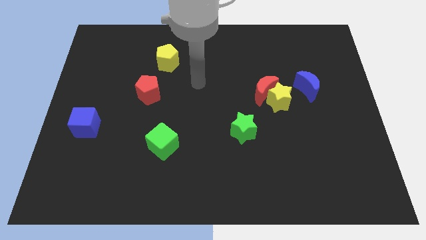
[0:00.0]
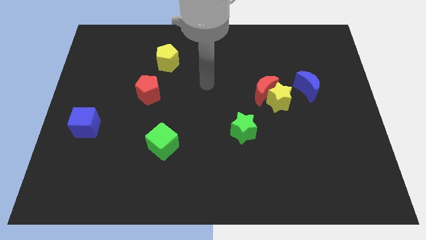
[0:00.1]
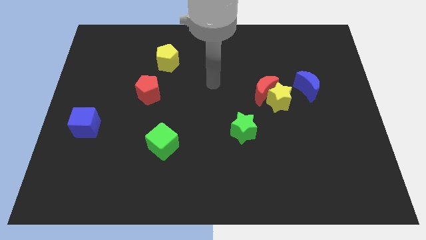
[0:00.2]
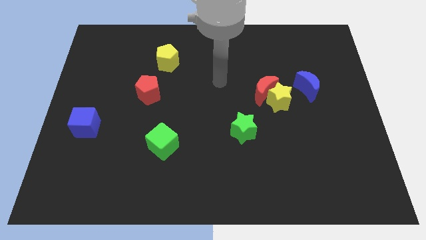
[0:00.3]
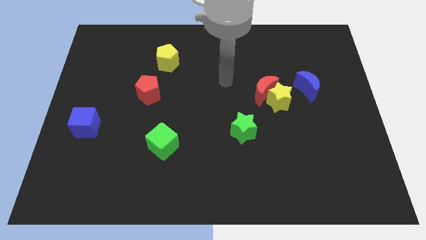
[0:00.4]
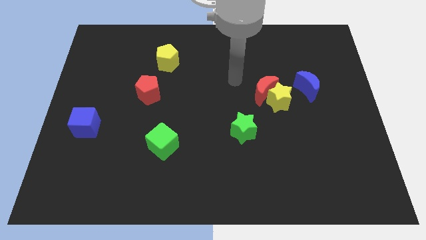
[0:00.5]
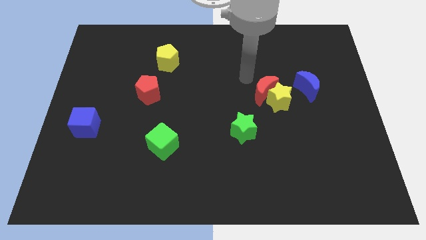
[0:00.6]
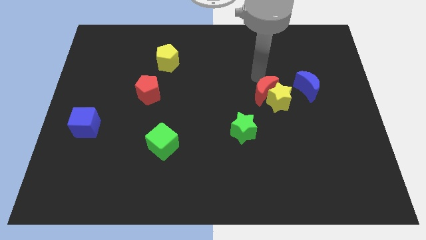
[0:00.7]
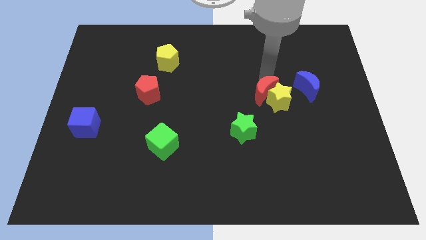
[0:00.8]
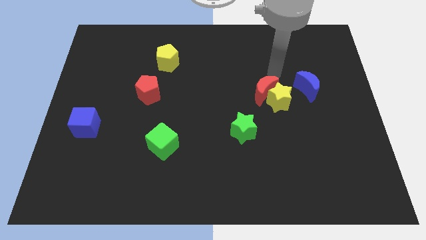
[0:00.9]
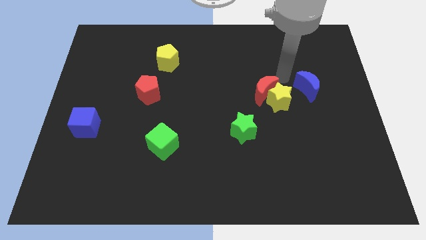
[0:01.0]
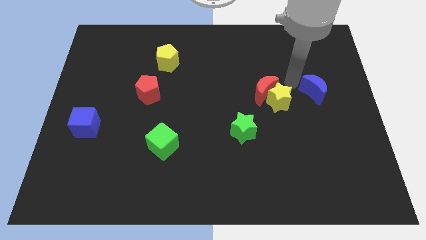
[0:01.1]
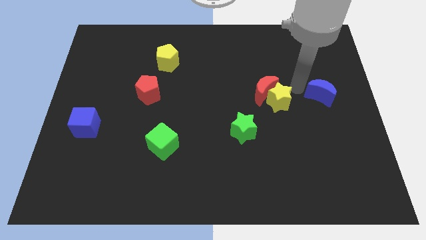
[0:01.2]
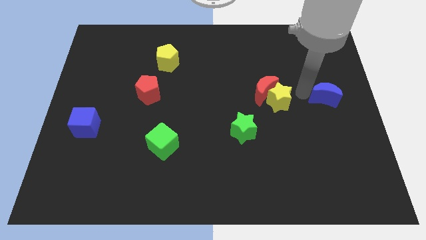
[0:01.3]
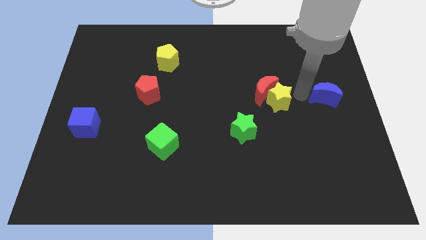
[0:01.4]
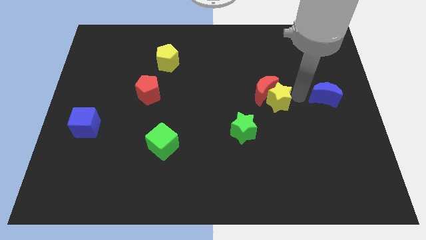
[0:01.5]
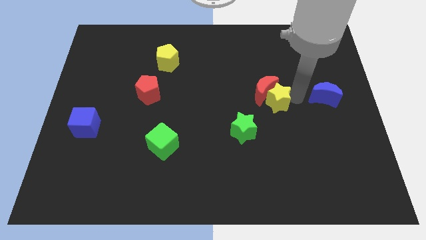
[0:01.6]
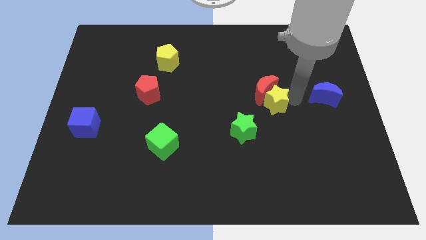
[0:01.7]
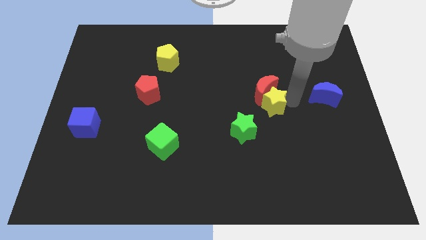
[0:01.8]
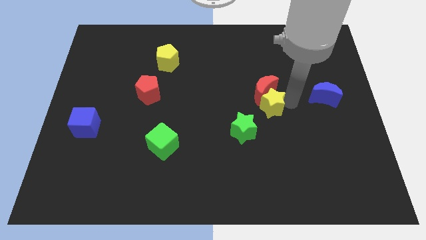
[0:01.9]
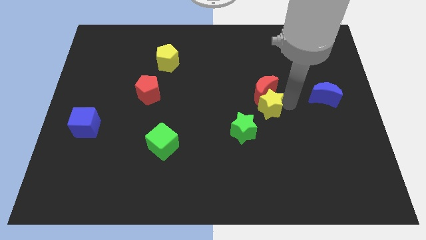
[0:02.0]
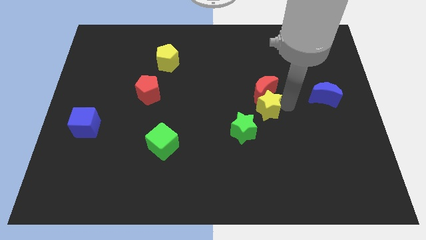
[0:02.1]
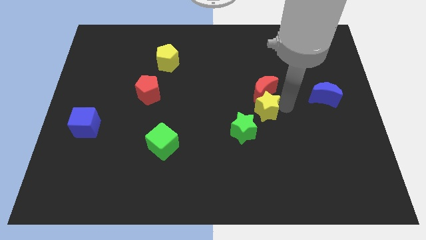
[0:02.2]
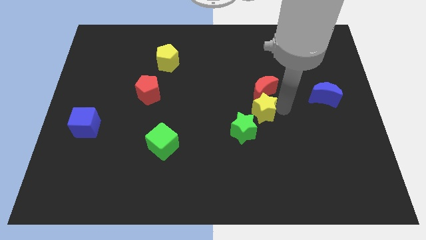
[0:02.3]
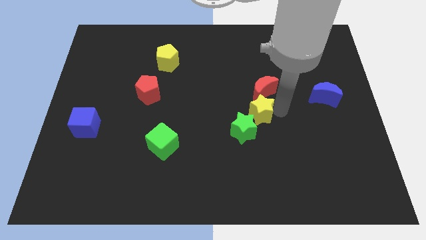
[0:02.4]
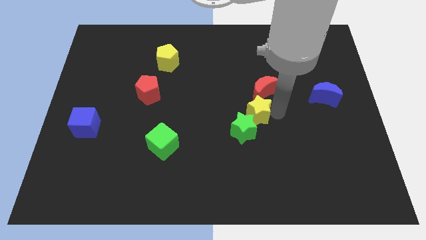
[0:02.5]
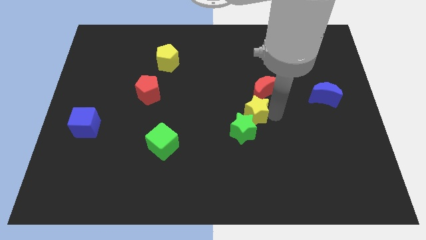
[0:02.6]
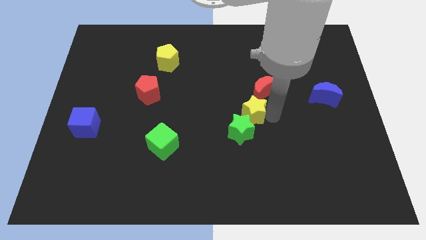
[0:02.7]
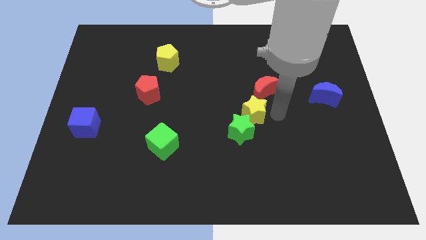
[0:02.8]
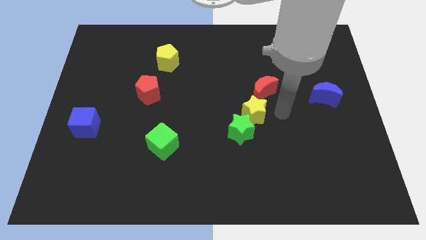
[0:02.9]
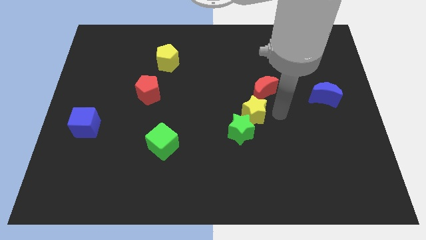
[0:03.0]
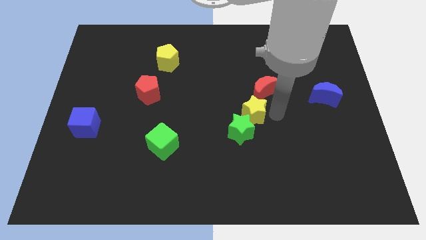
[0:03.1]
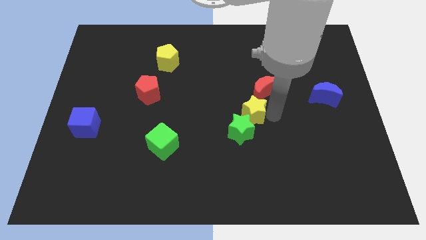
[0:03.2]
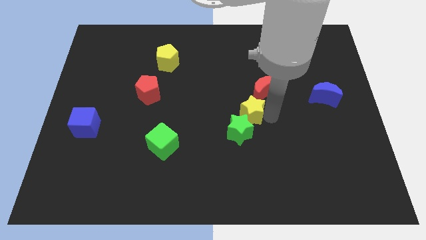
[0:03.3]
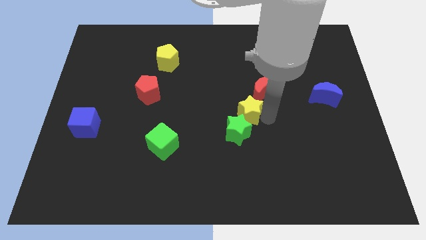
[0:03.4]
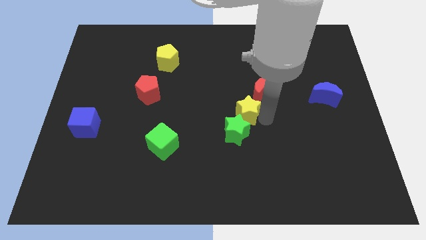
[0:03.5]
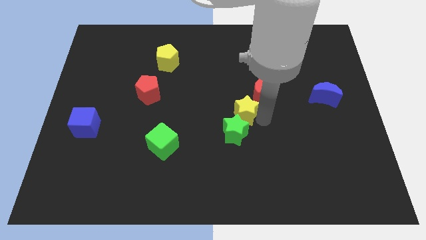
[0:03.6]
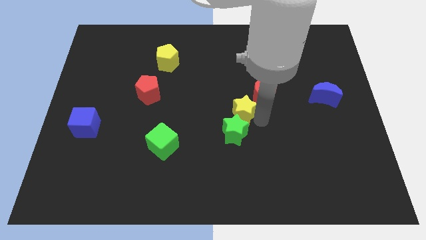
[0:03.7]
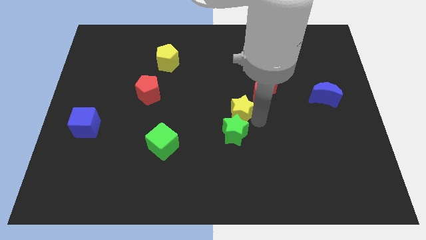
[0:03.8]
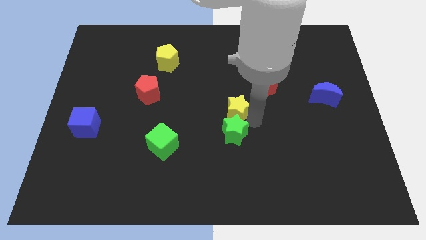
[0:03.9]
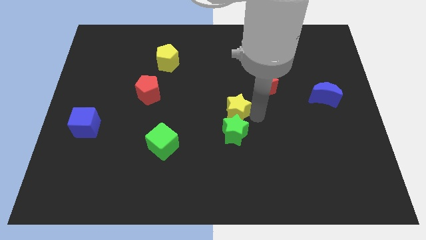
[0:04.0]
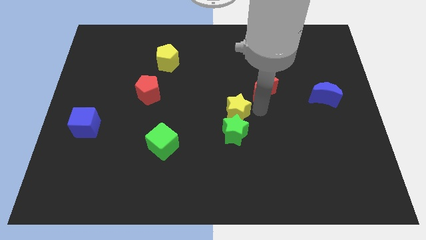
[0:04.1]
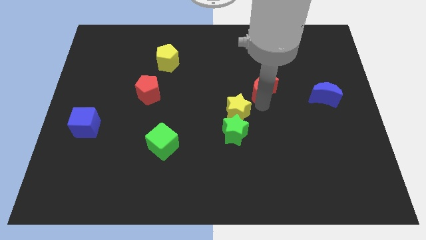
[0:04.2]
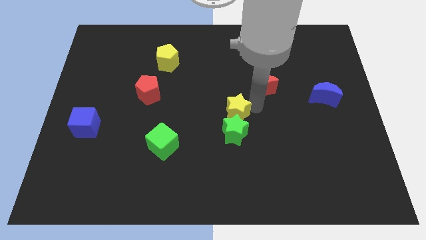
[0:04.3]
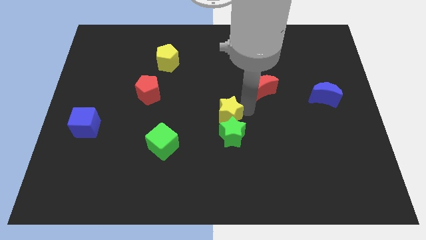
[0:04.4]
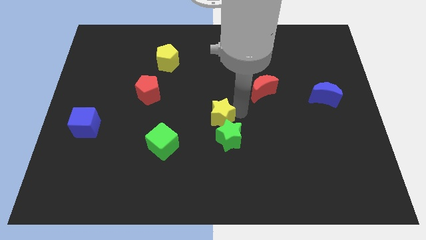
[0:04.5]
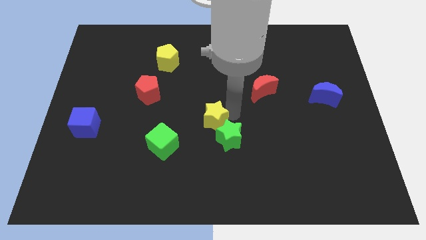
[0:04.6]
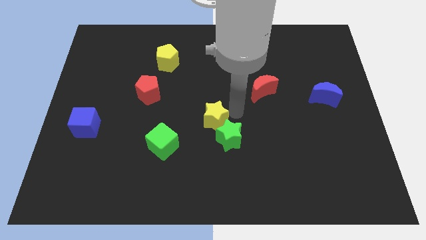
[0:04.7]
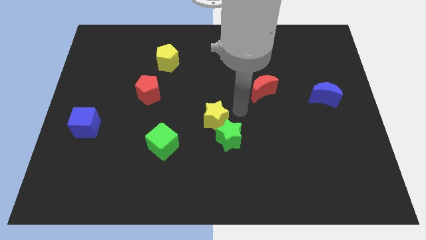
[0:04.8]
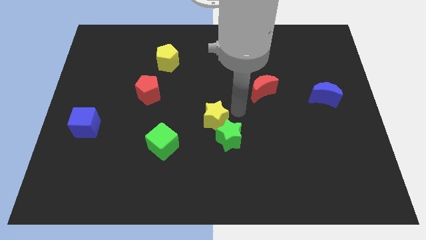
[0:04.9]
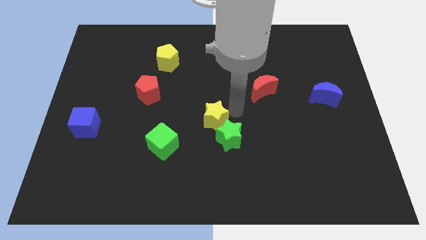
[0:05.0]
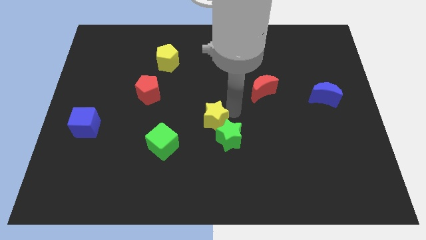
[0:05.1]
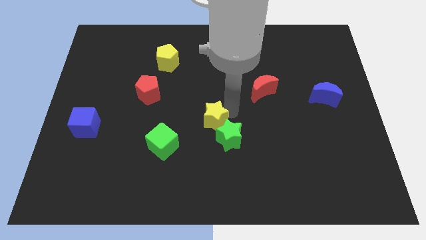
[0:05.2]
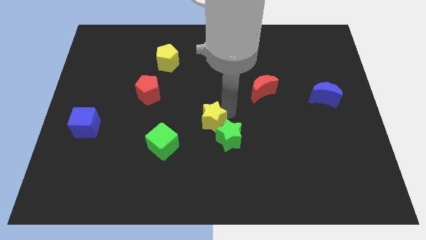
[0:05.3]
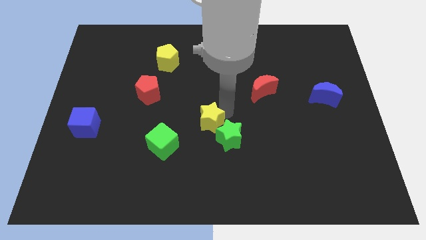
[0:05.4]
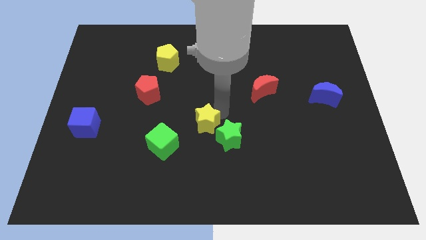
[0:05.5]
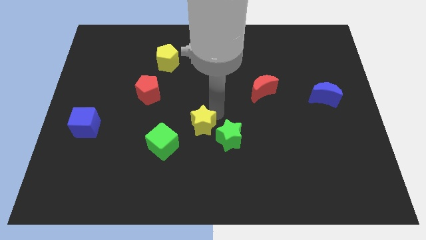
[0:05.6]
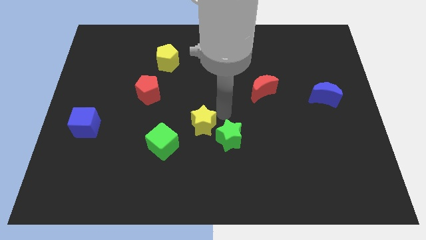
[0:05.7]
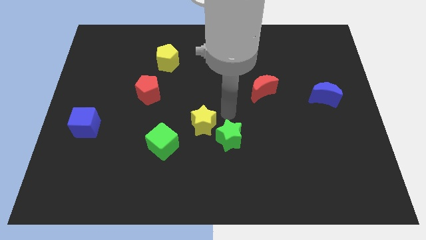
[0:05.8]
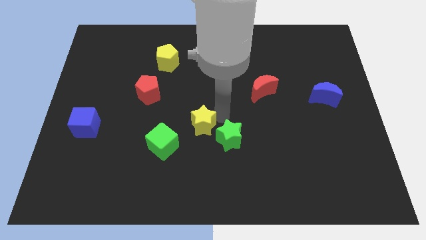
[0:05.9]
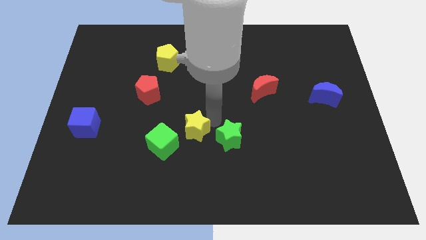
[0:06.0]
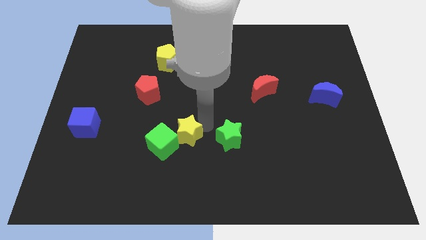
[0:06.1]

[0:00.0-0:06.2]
slide the yellow star close to the green cube

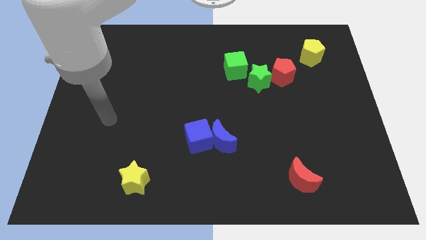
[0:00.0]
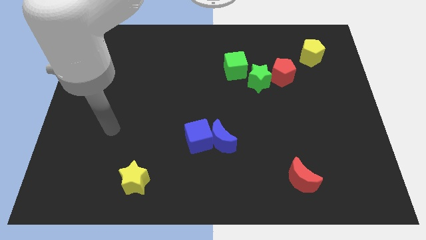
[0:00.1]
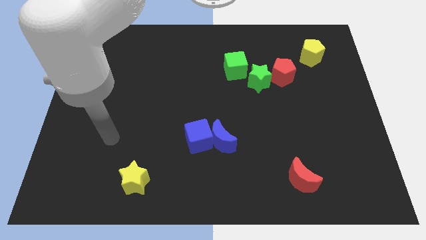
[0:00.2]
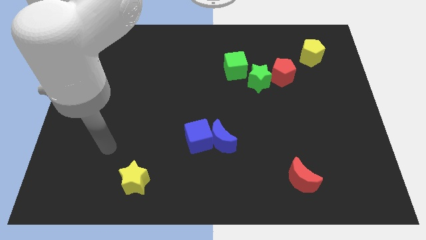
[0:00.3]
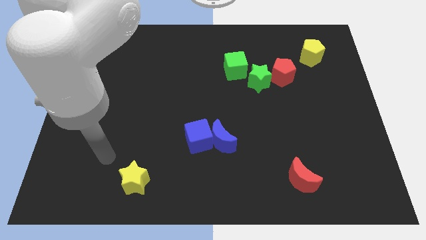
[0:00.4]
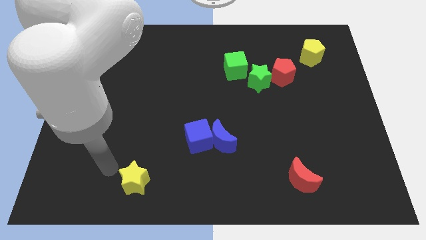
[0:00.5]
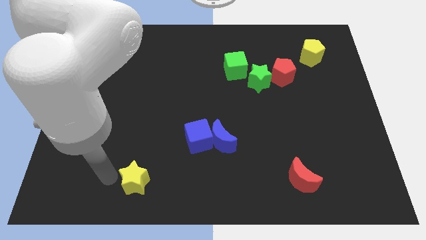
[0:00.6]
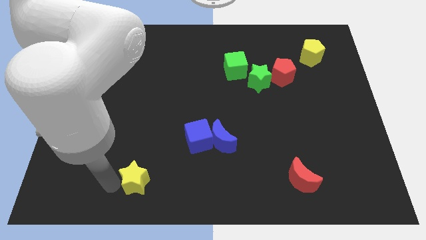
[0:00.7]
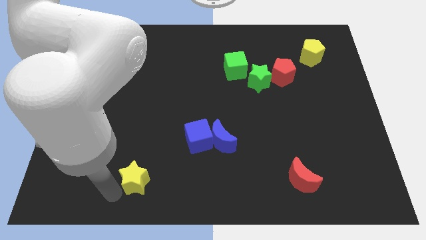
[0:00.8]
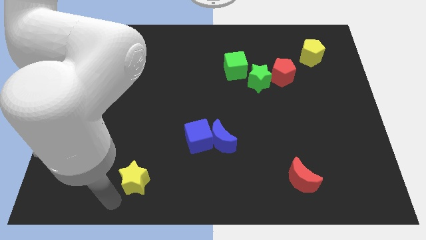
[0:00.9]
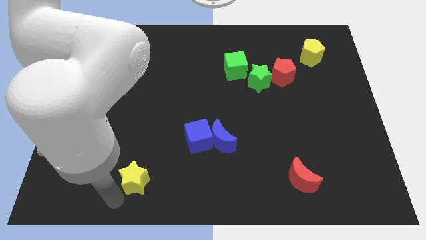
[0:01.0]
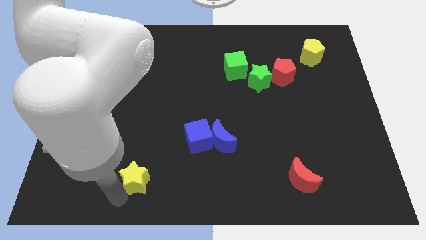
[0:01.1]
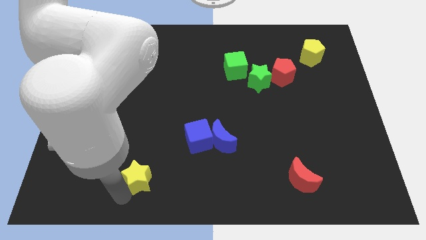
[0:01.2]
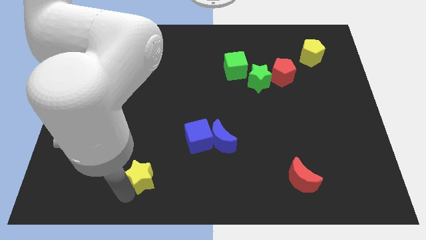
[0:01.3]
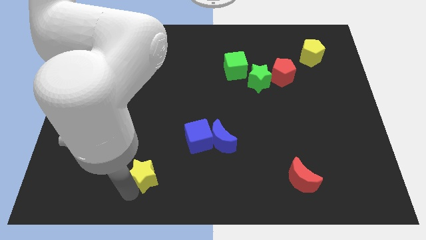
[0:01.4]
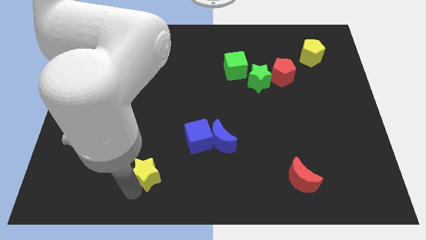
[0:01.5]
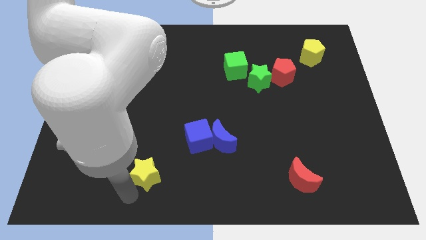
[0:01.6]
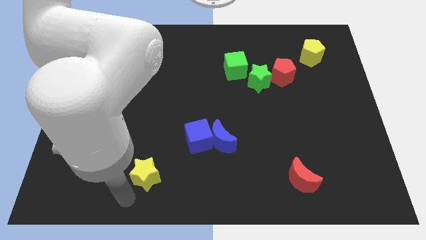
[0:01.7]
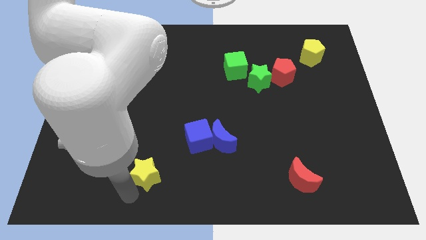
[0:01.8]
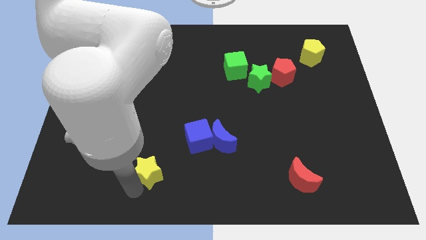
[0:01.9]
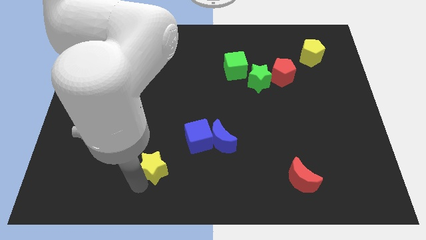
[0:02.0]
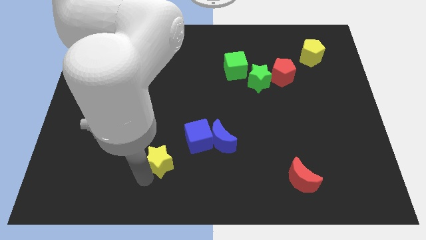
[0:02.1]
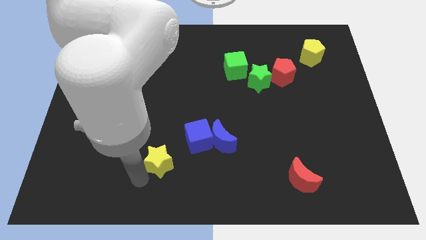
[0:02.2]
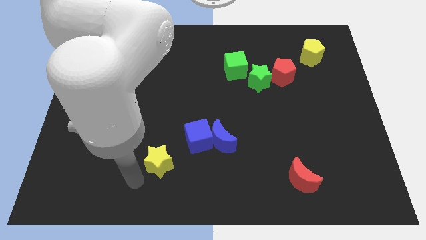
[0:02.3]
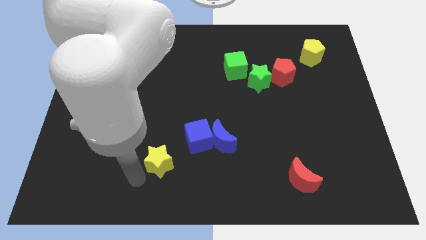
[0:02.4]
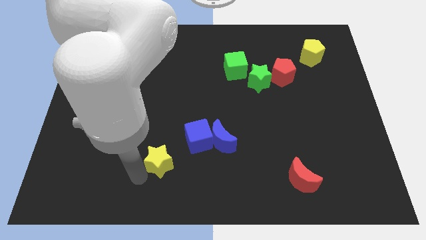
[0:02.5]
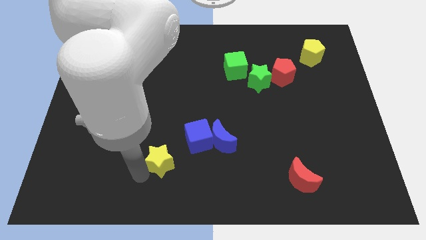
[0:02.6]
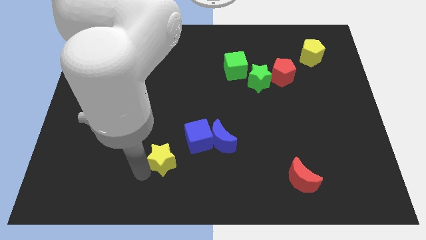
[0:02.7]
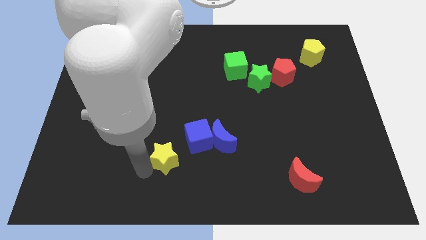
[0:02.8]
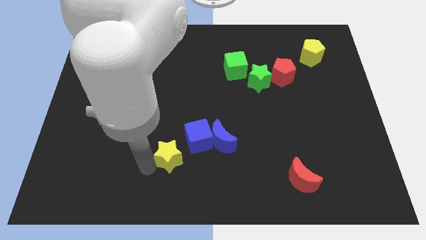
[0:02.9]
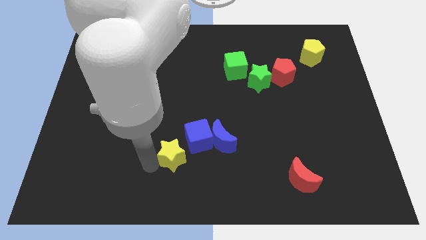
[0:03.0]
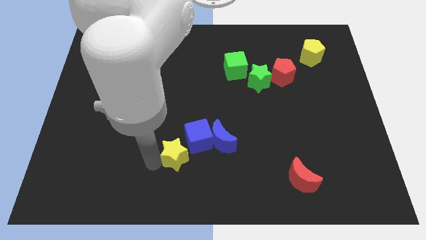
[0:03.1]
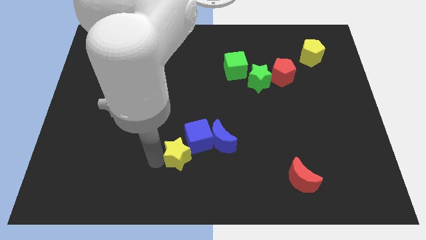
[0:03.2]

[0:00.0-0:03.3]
slide the yellow star close to the blue cube
